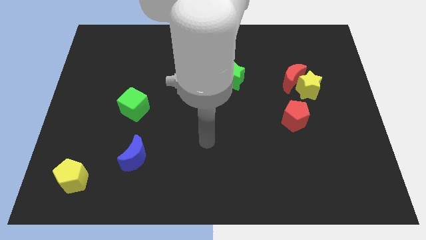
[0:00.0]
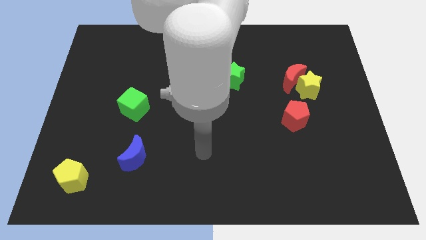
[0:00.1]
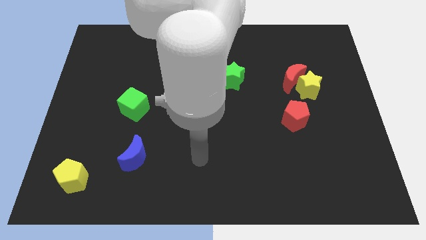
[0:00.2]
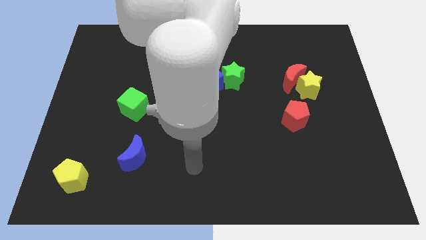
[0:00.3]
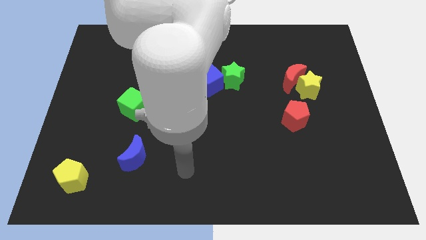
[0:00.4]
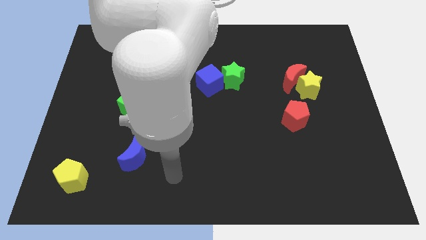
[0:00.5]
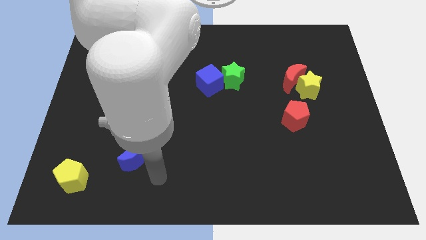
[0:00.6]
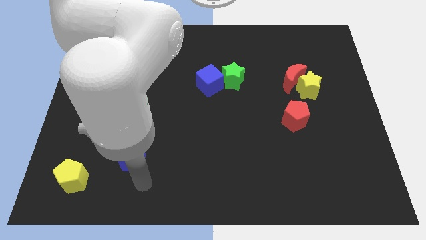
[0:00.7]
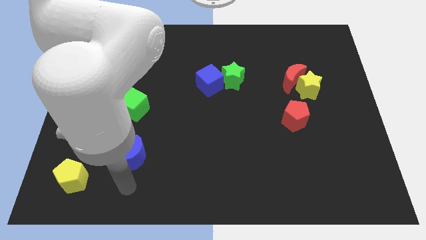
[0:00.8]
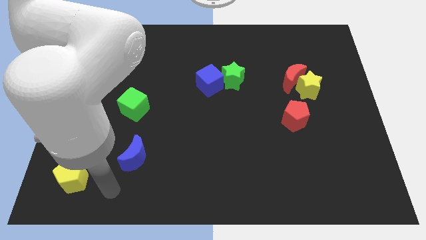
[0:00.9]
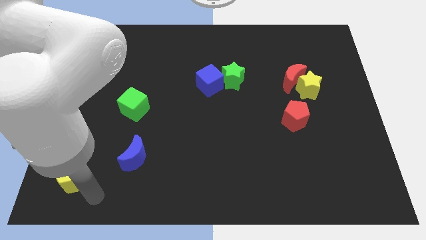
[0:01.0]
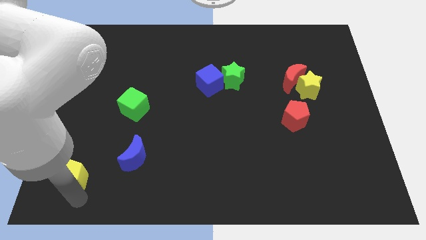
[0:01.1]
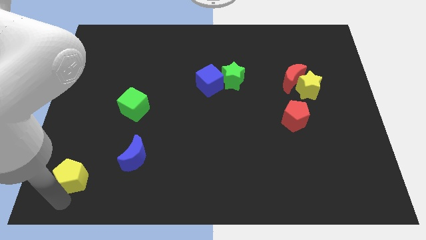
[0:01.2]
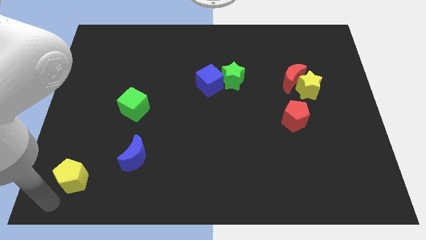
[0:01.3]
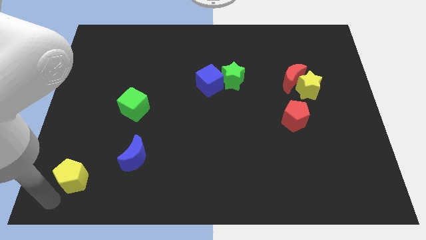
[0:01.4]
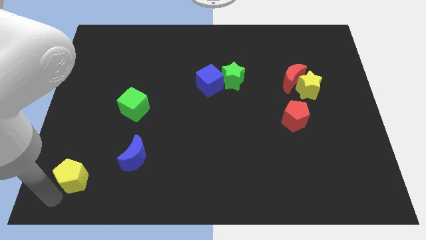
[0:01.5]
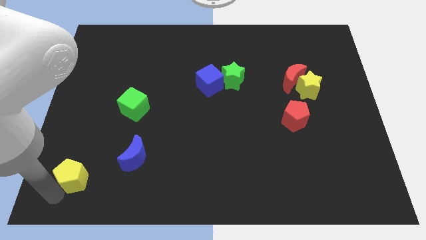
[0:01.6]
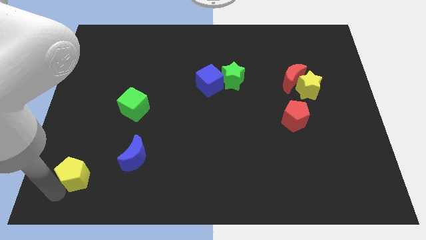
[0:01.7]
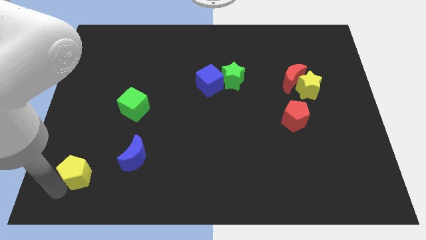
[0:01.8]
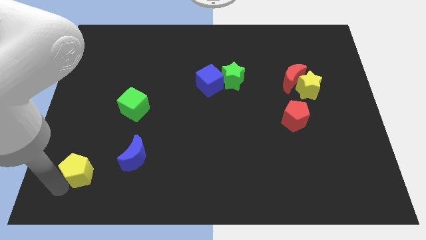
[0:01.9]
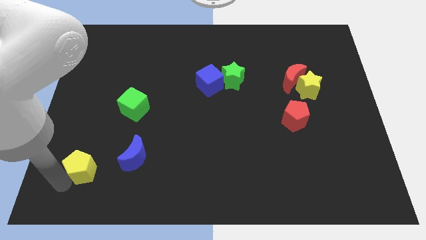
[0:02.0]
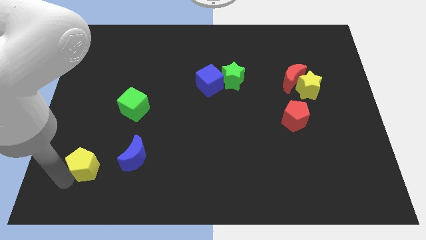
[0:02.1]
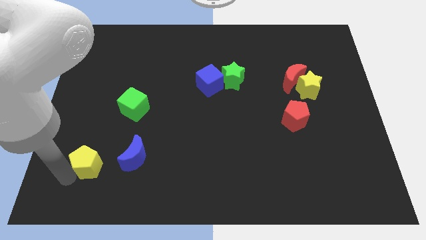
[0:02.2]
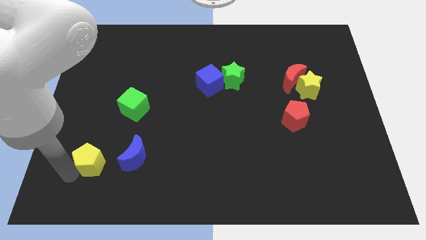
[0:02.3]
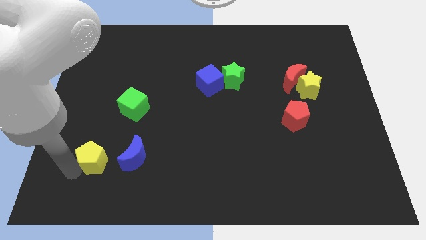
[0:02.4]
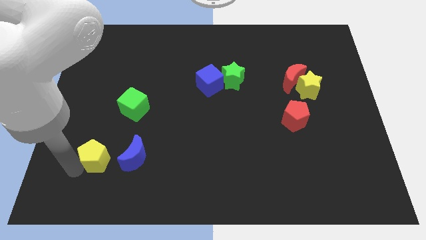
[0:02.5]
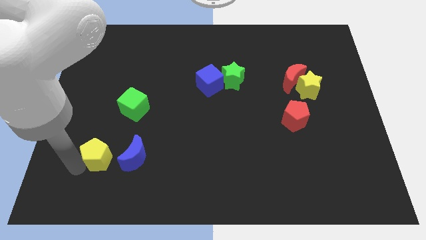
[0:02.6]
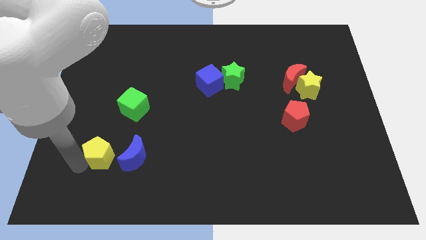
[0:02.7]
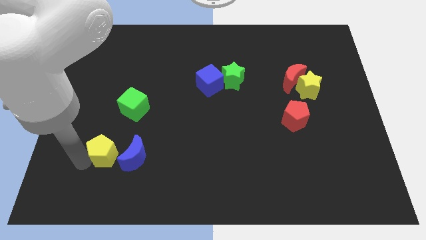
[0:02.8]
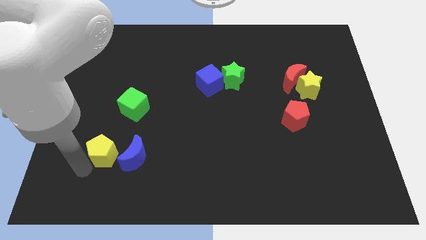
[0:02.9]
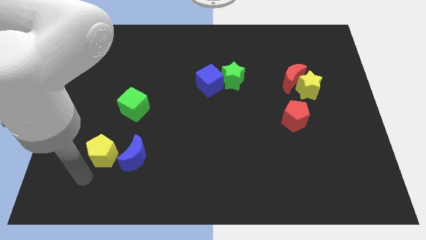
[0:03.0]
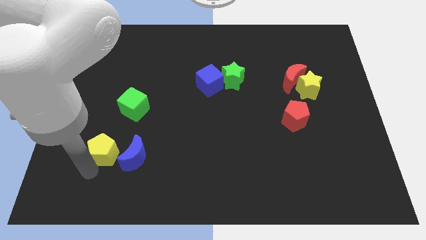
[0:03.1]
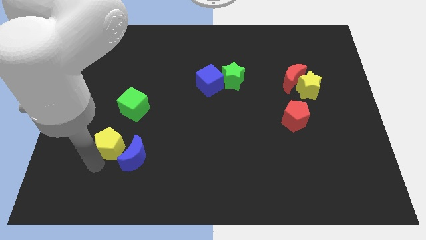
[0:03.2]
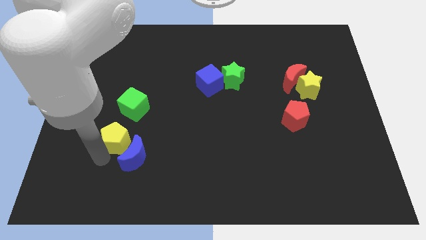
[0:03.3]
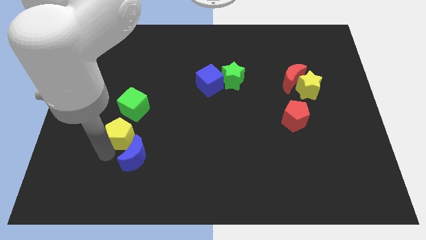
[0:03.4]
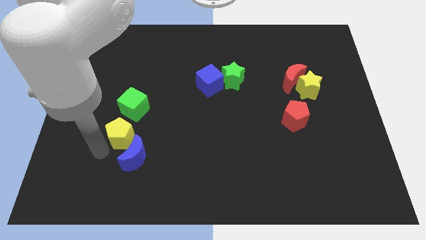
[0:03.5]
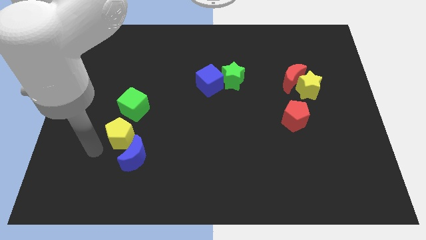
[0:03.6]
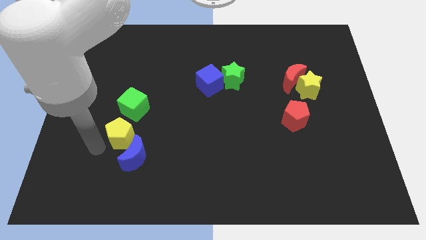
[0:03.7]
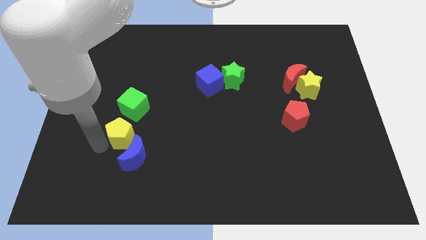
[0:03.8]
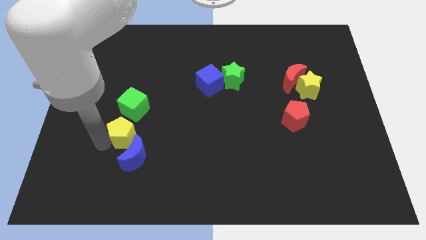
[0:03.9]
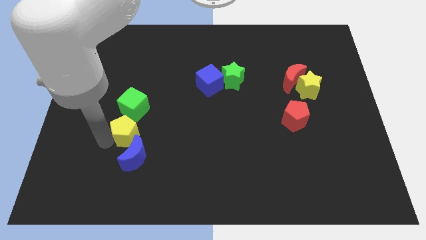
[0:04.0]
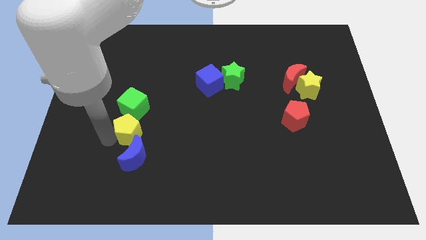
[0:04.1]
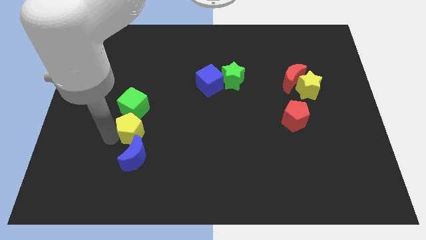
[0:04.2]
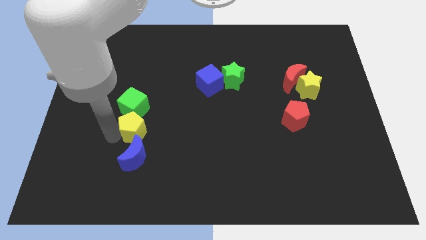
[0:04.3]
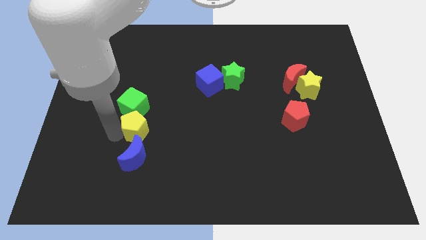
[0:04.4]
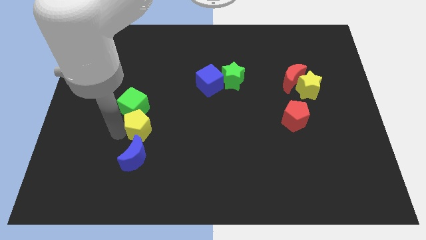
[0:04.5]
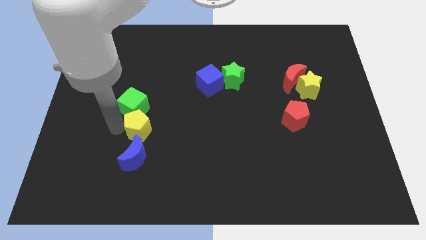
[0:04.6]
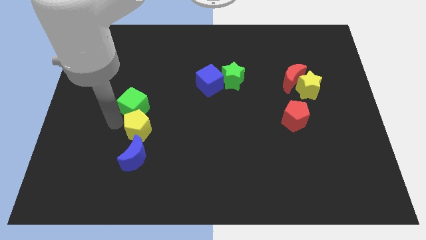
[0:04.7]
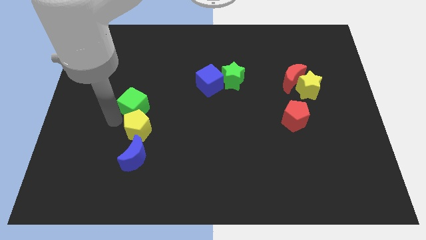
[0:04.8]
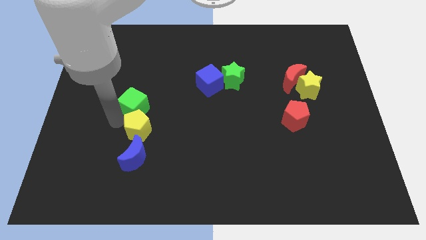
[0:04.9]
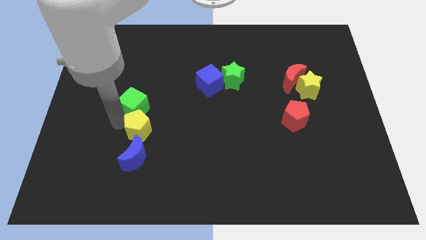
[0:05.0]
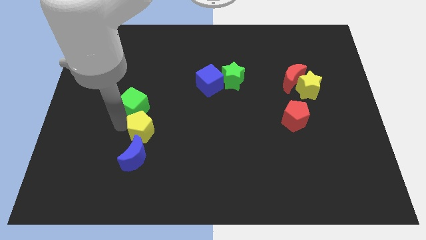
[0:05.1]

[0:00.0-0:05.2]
slide the yellow pentagon diagonally up and to the right of the blue moon

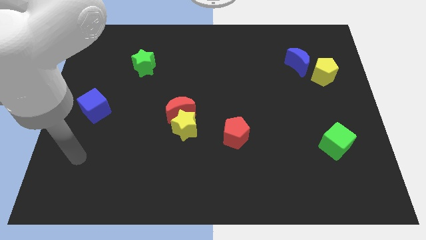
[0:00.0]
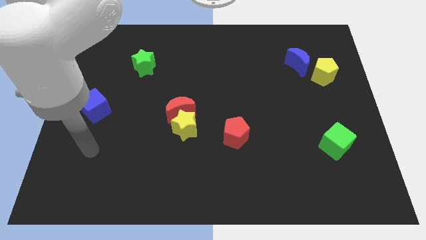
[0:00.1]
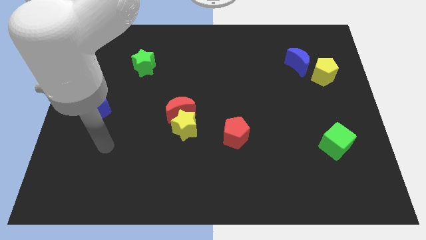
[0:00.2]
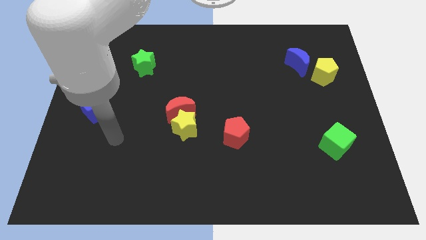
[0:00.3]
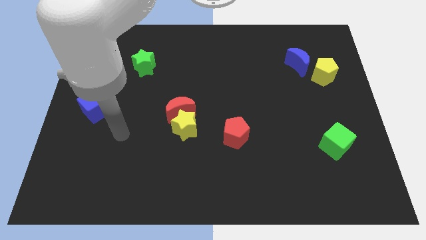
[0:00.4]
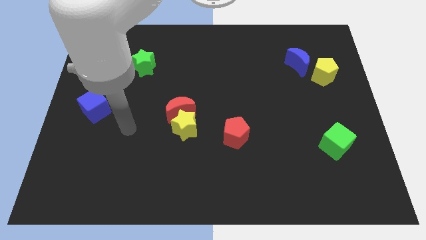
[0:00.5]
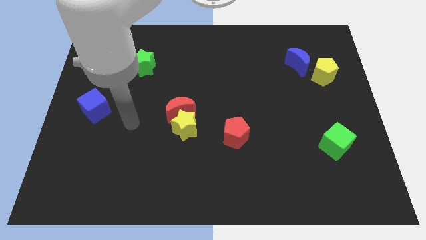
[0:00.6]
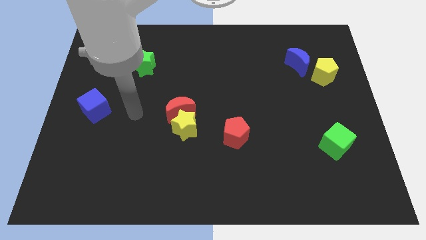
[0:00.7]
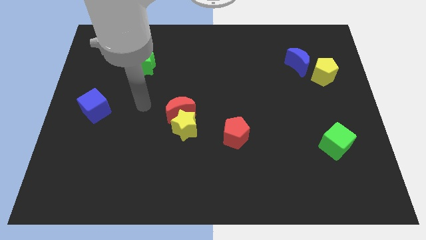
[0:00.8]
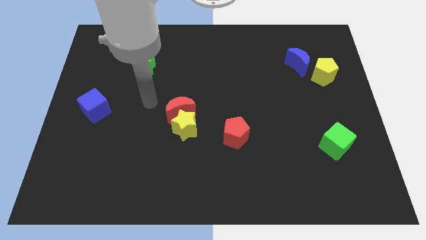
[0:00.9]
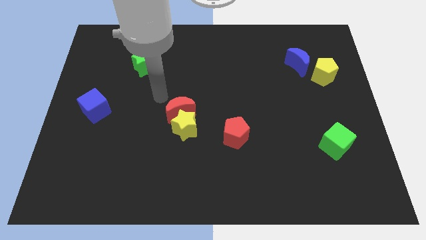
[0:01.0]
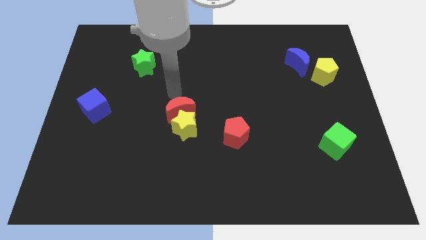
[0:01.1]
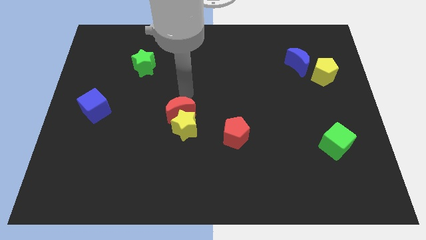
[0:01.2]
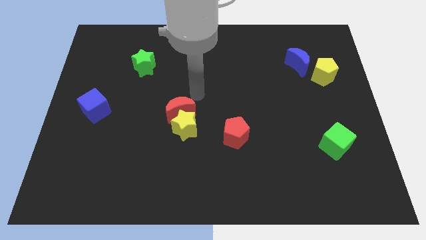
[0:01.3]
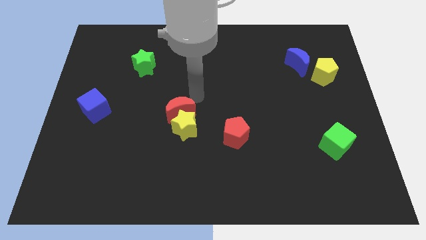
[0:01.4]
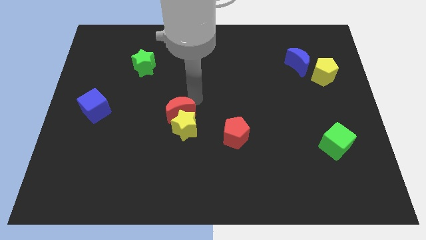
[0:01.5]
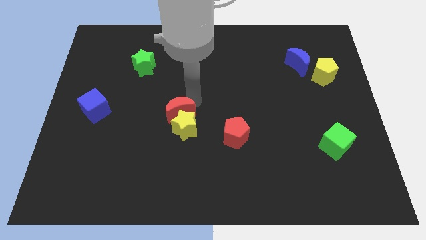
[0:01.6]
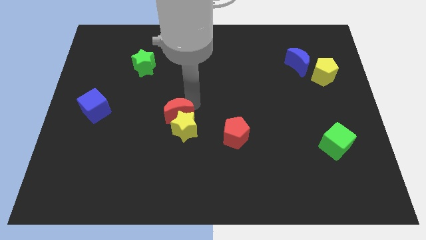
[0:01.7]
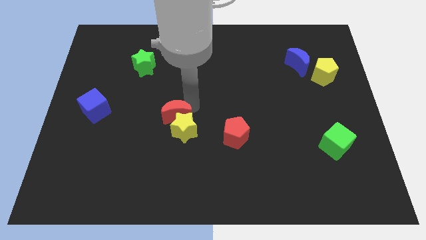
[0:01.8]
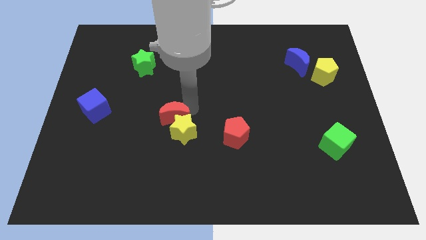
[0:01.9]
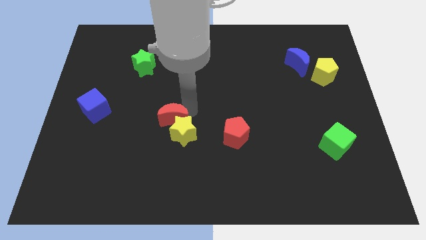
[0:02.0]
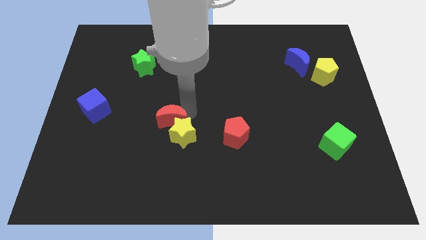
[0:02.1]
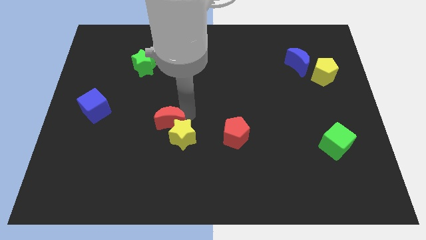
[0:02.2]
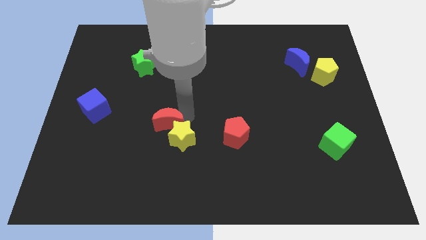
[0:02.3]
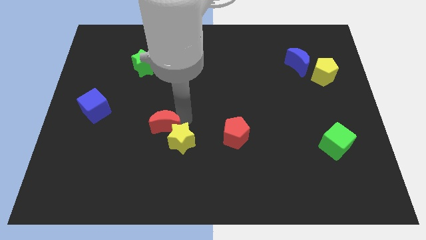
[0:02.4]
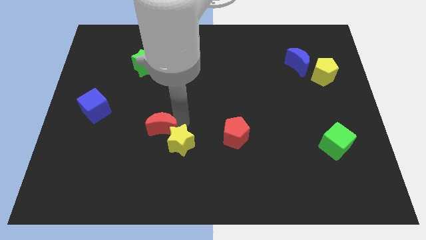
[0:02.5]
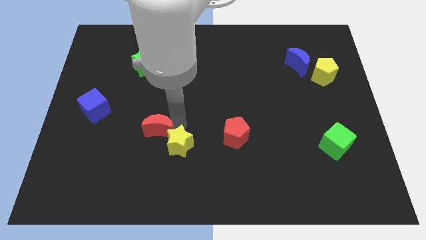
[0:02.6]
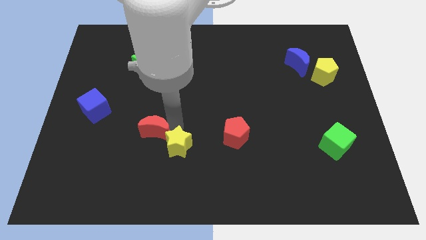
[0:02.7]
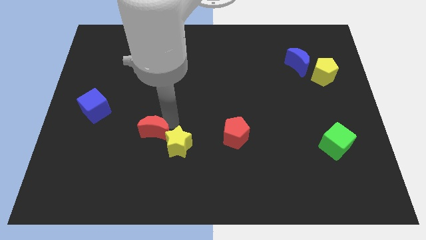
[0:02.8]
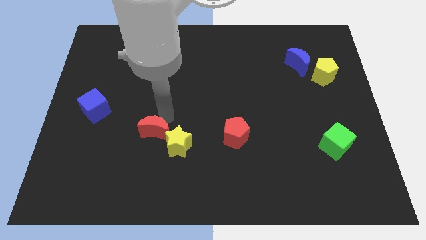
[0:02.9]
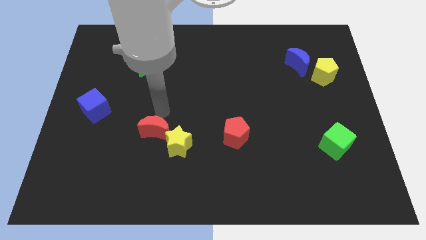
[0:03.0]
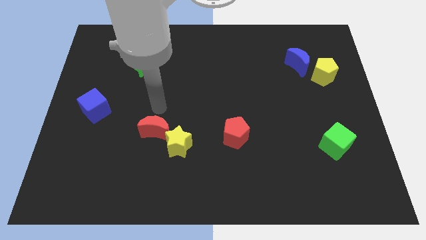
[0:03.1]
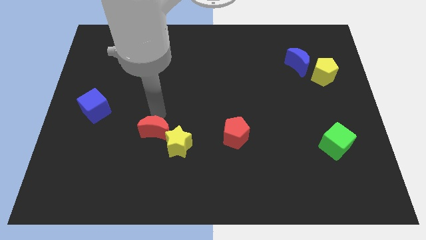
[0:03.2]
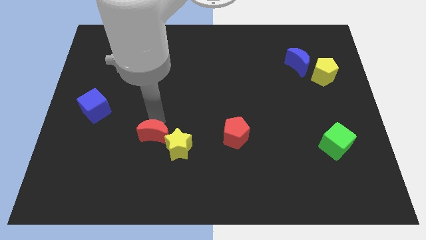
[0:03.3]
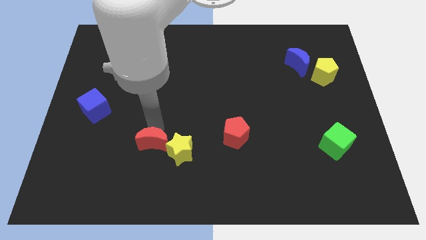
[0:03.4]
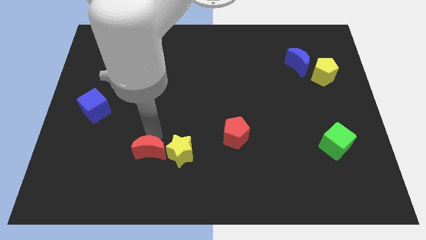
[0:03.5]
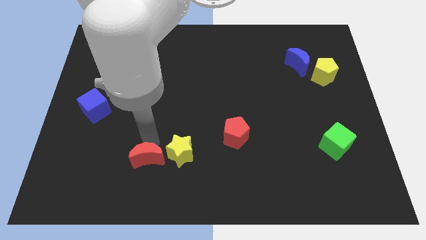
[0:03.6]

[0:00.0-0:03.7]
put the red moon diagonally down and to the left of the yellow star
